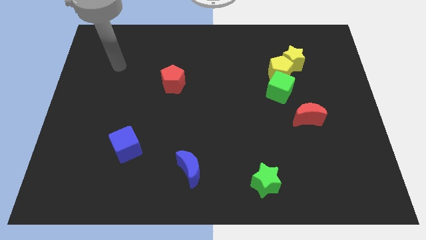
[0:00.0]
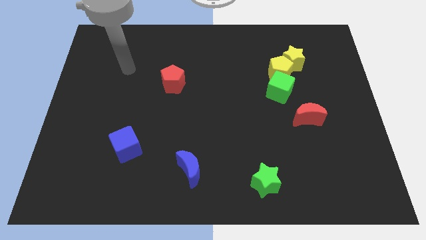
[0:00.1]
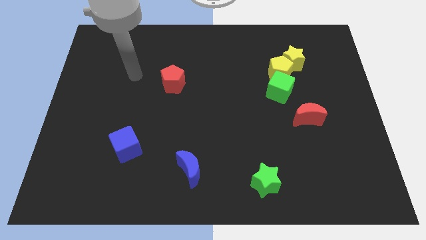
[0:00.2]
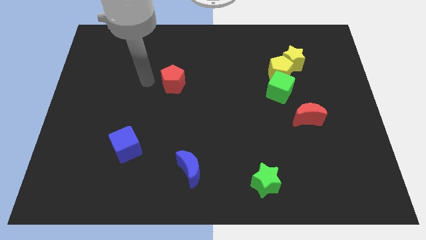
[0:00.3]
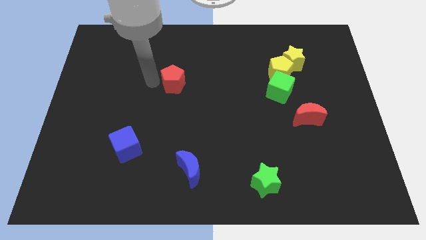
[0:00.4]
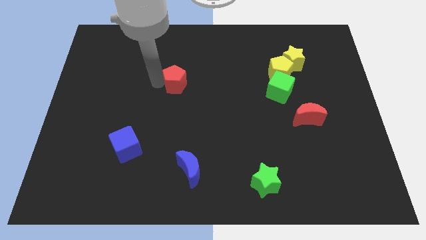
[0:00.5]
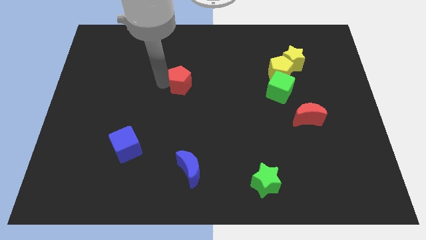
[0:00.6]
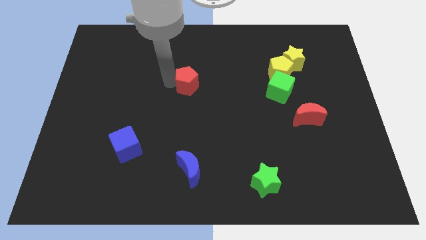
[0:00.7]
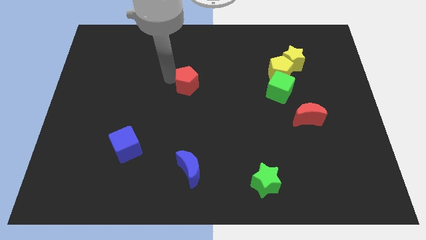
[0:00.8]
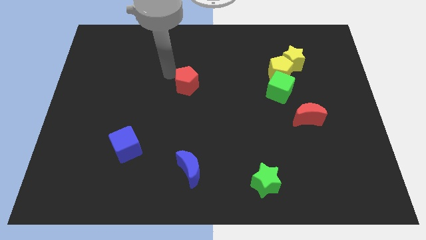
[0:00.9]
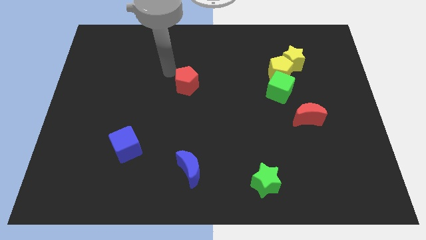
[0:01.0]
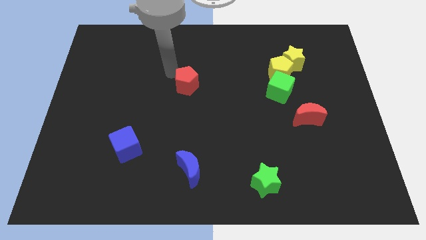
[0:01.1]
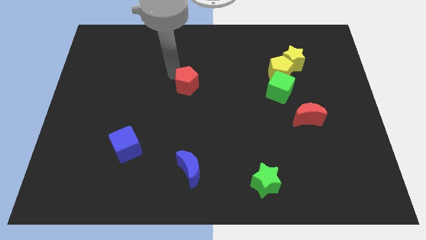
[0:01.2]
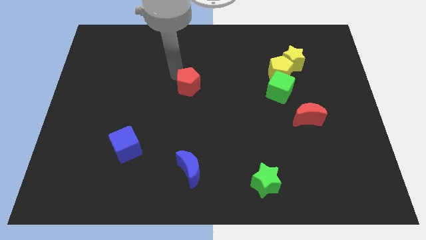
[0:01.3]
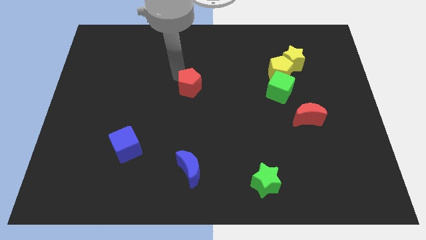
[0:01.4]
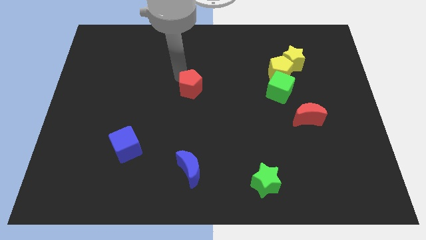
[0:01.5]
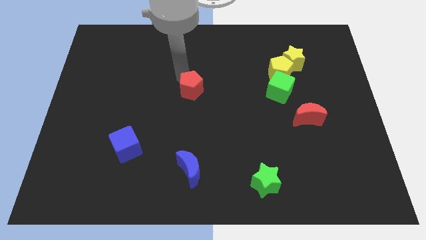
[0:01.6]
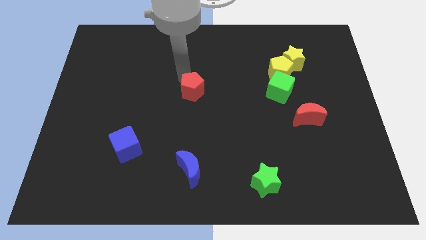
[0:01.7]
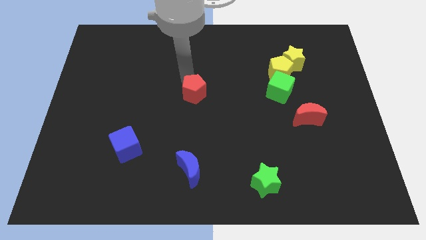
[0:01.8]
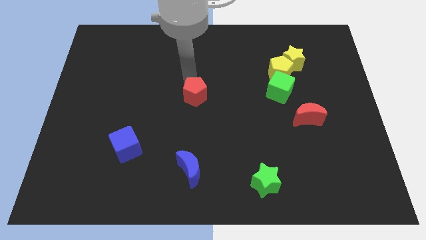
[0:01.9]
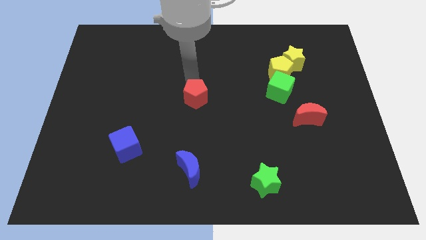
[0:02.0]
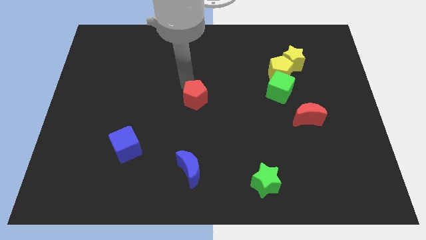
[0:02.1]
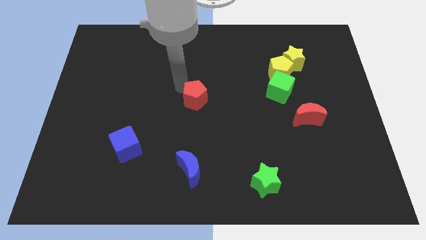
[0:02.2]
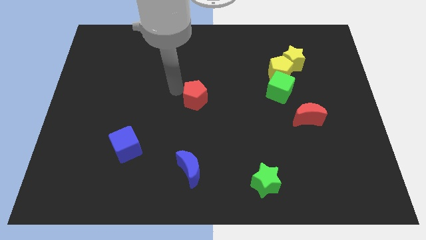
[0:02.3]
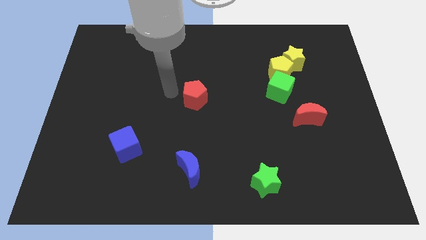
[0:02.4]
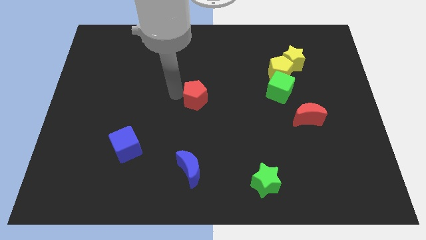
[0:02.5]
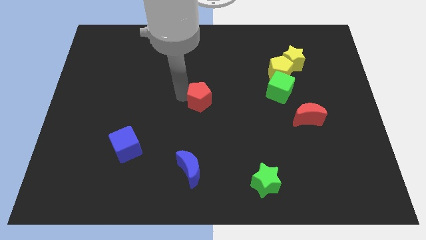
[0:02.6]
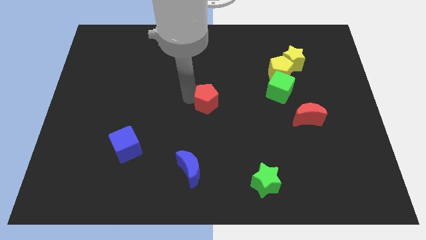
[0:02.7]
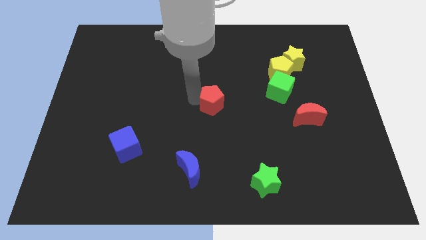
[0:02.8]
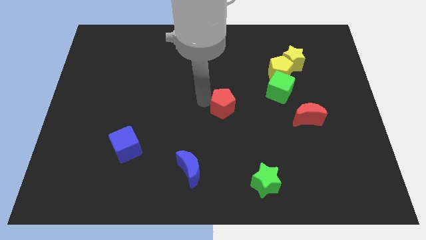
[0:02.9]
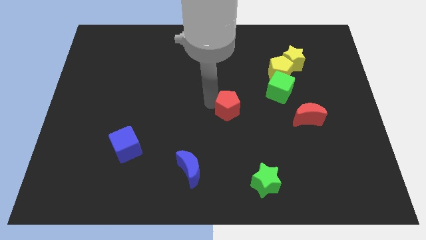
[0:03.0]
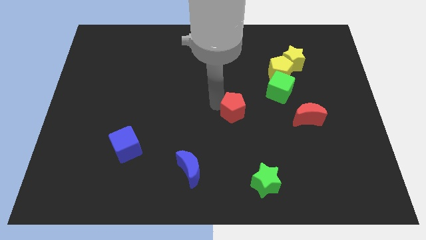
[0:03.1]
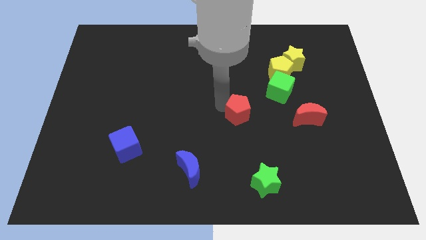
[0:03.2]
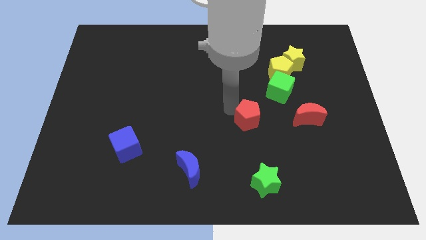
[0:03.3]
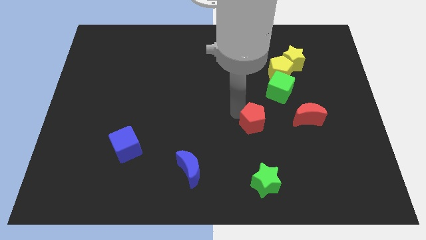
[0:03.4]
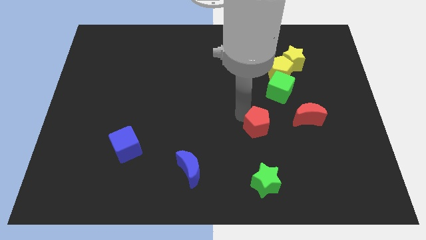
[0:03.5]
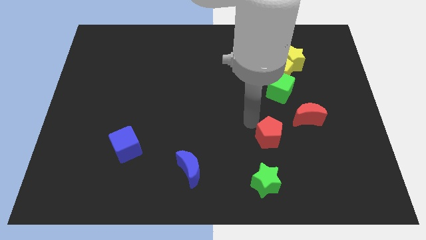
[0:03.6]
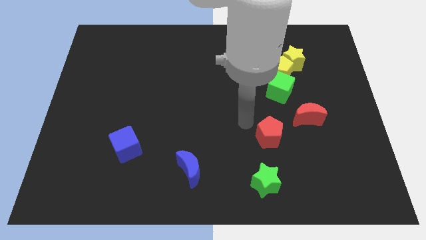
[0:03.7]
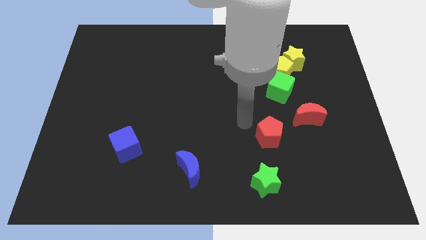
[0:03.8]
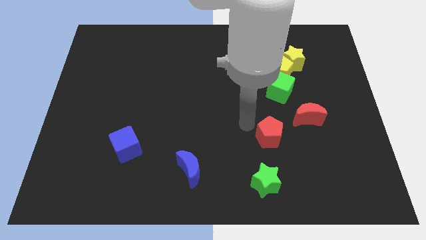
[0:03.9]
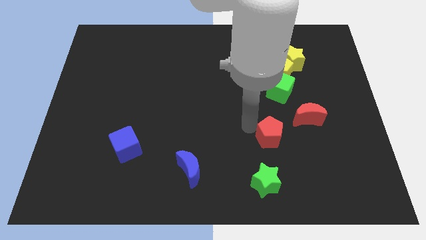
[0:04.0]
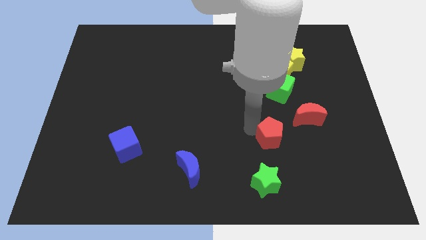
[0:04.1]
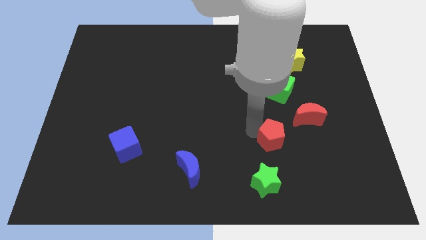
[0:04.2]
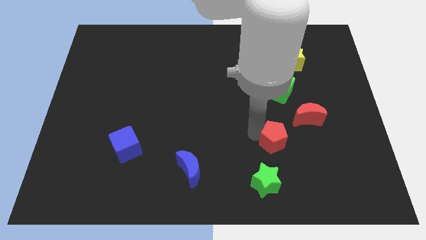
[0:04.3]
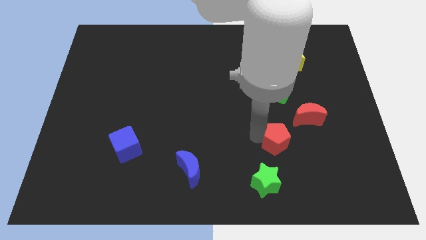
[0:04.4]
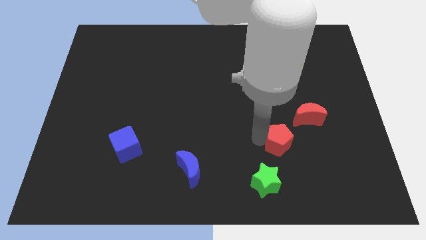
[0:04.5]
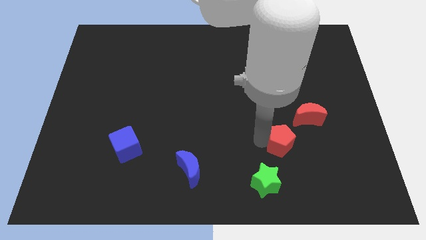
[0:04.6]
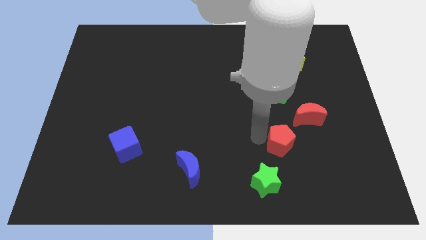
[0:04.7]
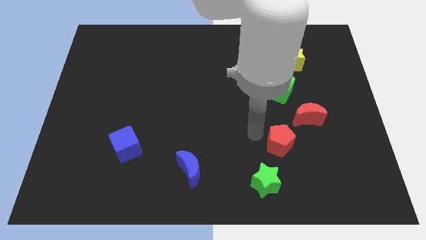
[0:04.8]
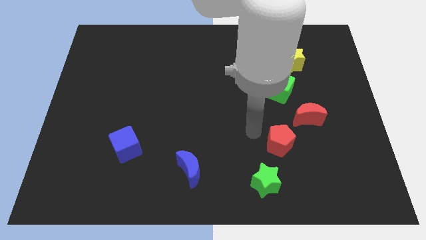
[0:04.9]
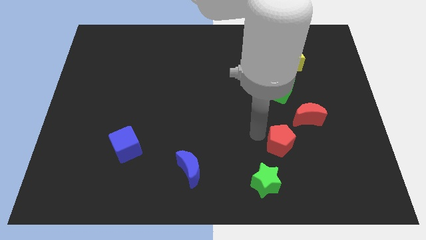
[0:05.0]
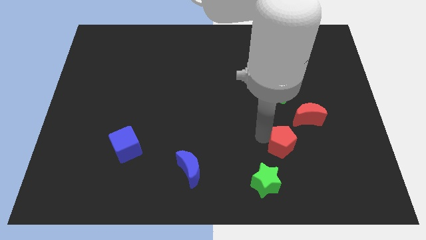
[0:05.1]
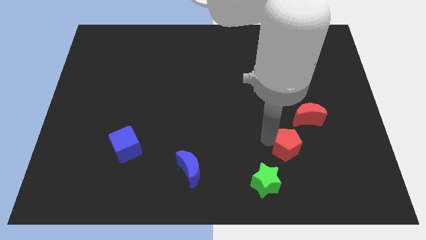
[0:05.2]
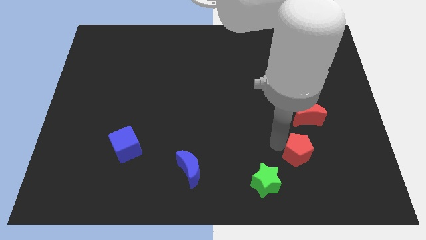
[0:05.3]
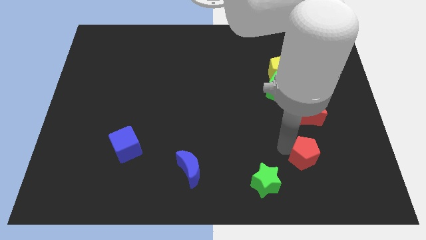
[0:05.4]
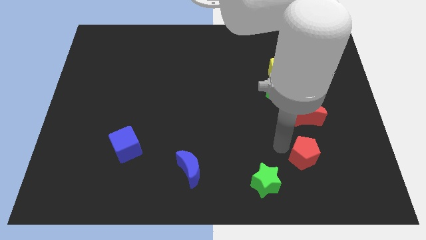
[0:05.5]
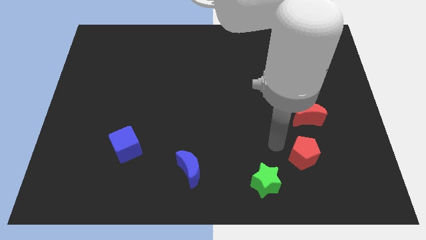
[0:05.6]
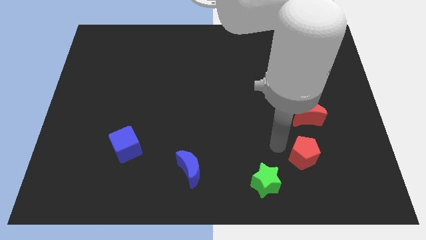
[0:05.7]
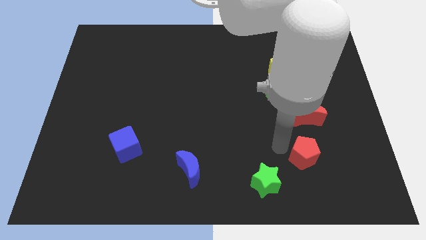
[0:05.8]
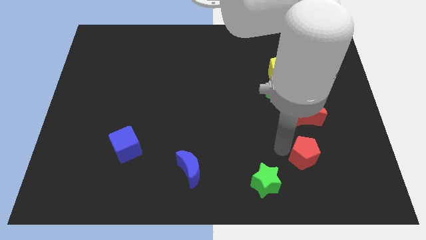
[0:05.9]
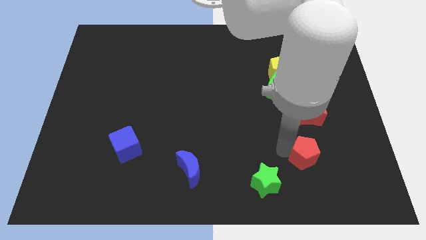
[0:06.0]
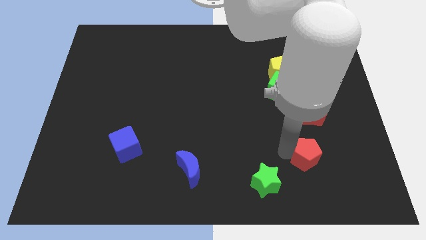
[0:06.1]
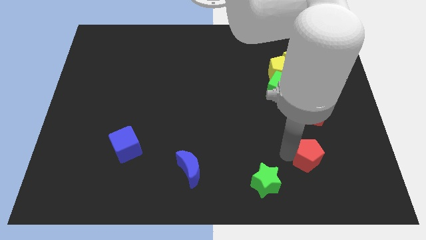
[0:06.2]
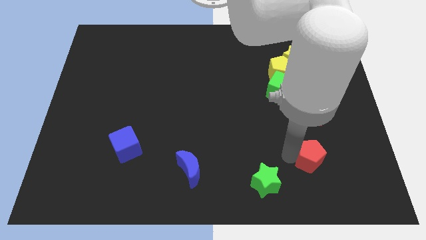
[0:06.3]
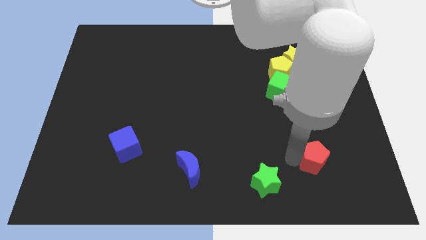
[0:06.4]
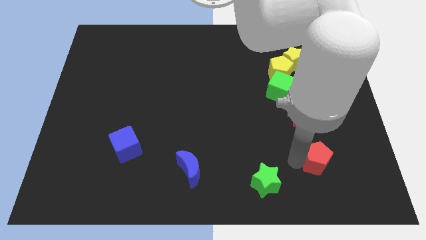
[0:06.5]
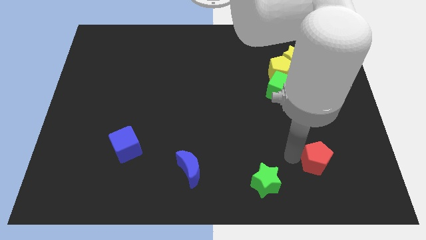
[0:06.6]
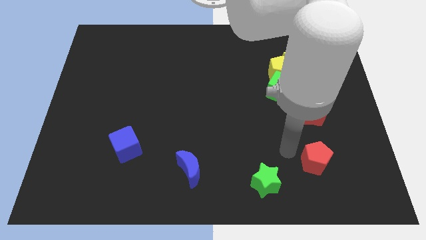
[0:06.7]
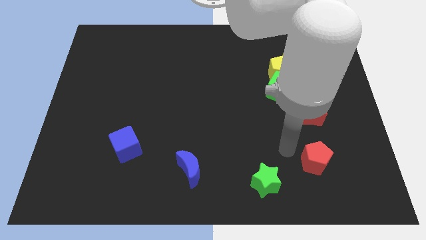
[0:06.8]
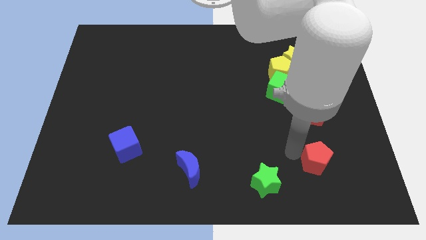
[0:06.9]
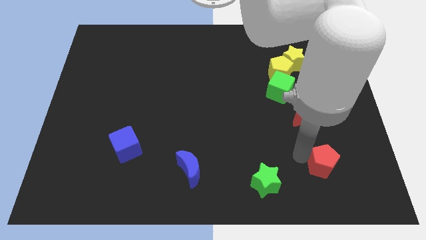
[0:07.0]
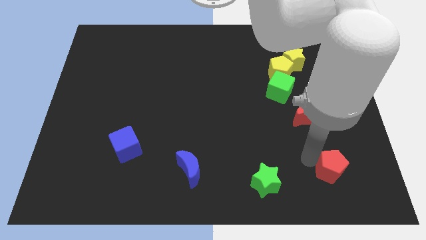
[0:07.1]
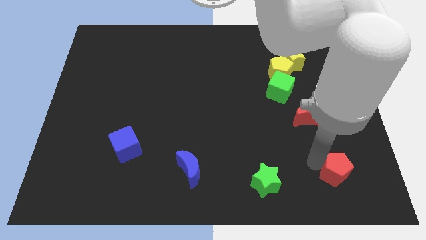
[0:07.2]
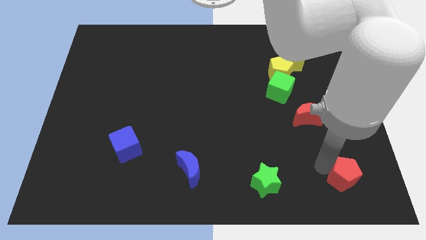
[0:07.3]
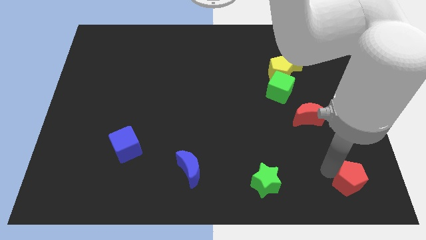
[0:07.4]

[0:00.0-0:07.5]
slide the red pentagon to the bottom right
